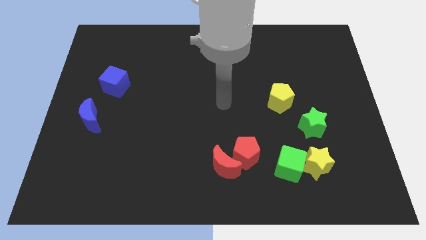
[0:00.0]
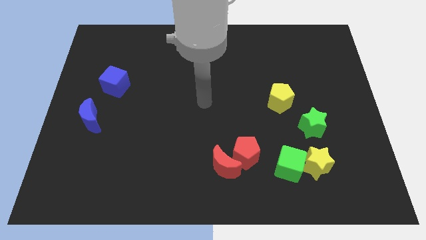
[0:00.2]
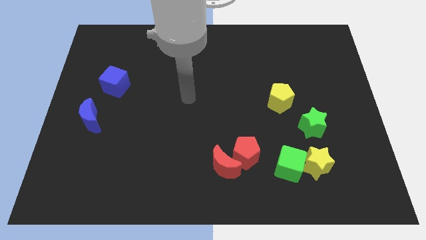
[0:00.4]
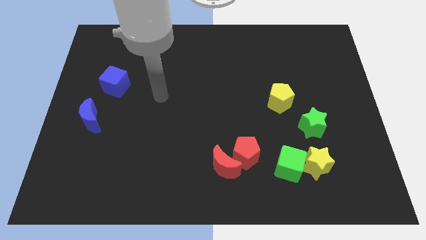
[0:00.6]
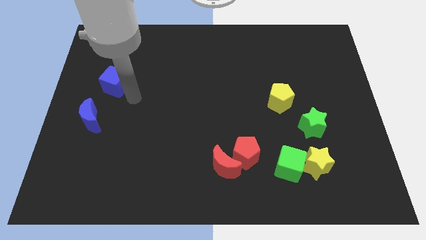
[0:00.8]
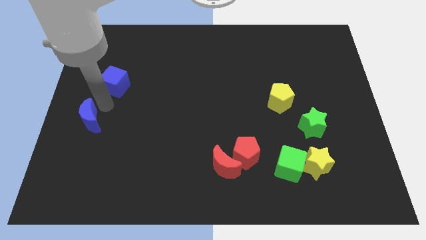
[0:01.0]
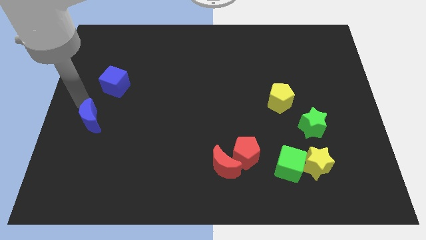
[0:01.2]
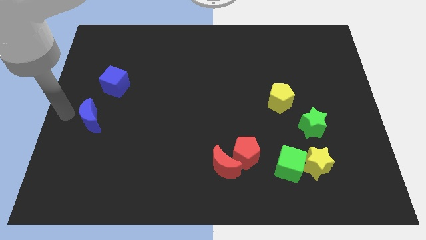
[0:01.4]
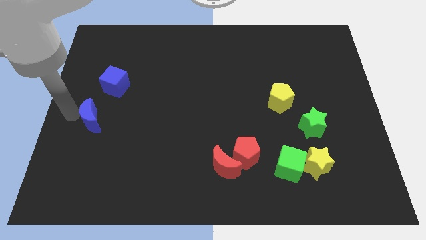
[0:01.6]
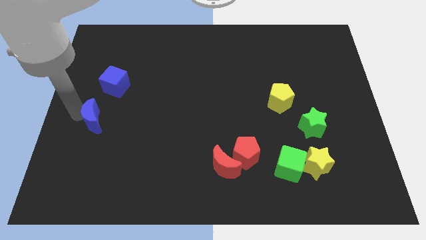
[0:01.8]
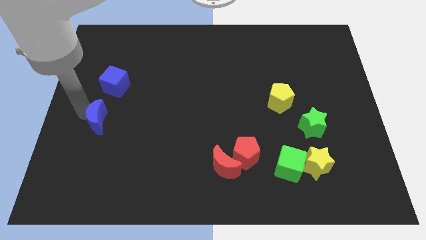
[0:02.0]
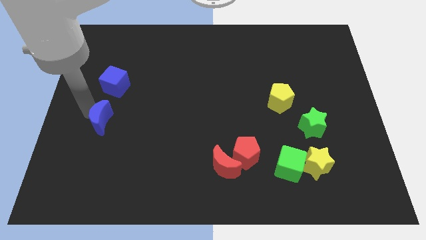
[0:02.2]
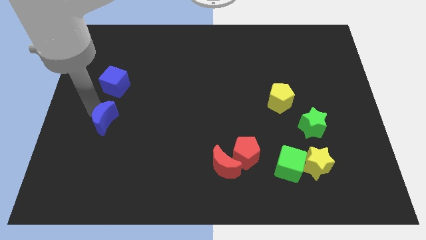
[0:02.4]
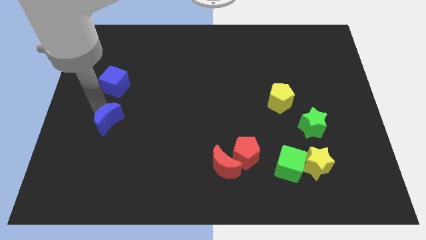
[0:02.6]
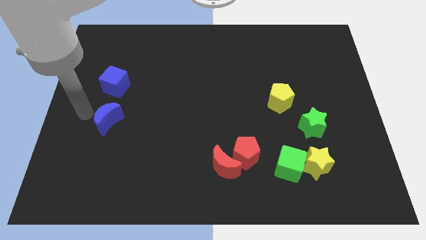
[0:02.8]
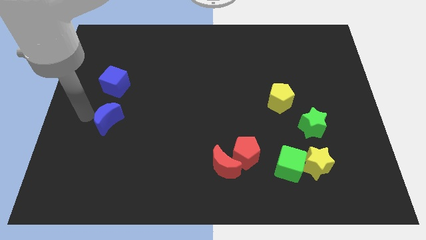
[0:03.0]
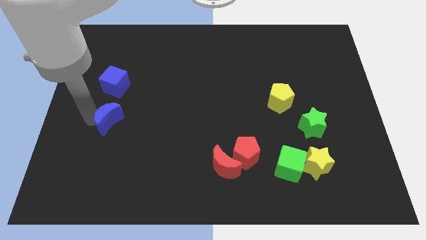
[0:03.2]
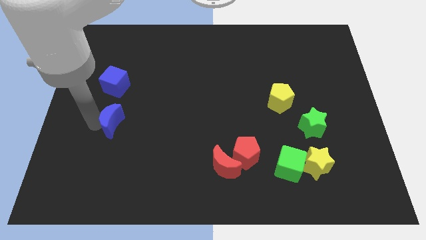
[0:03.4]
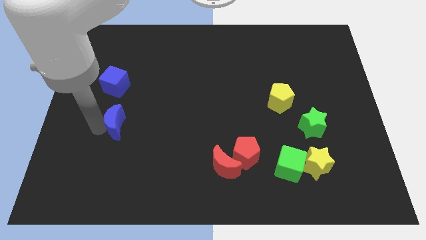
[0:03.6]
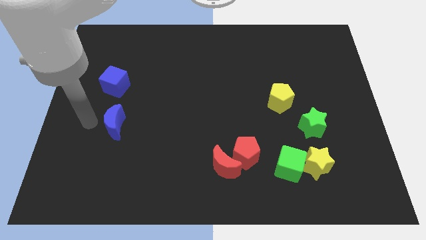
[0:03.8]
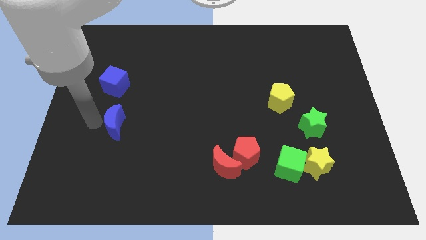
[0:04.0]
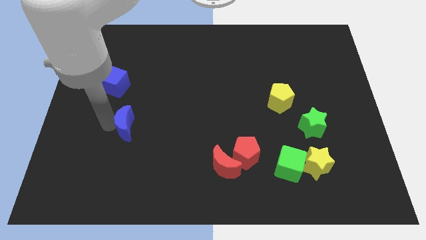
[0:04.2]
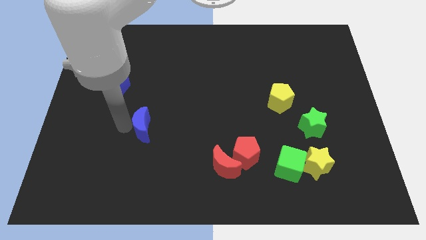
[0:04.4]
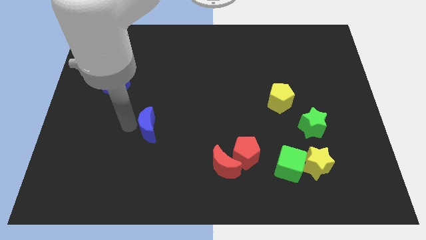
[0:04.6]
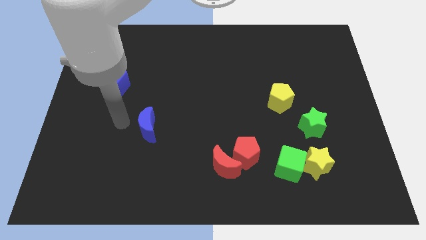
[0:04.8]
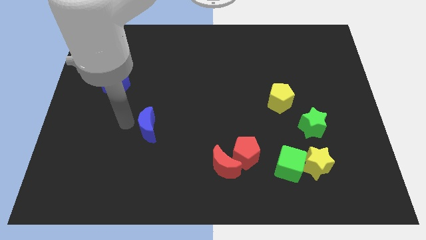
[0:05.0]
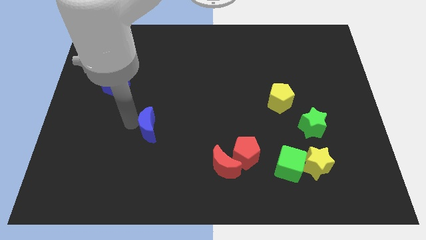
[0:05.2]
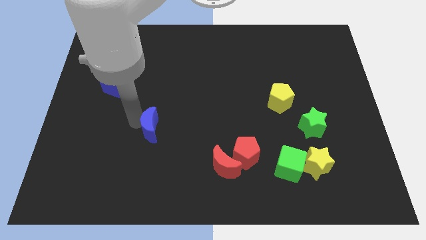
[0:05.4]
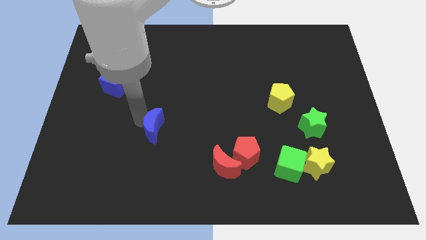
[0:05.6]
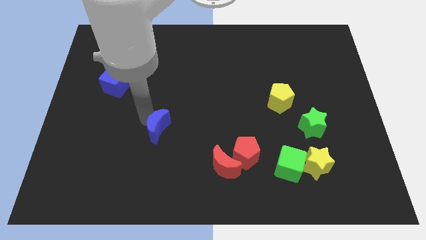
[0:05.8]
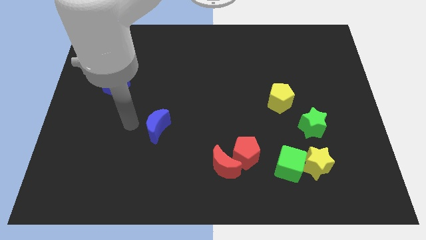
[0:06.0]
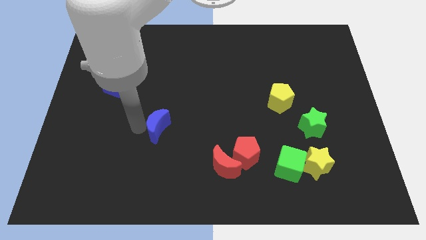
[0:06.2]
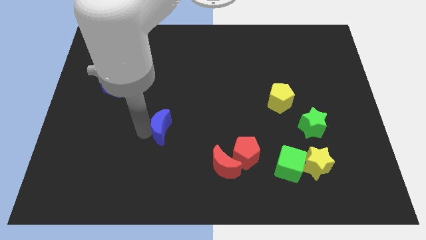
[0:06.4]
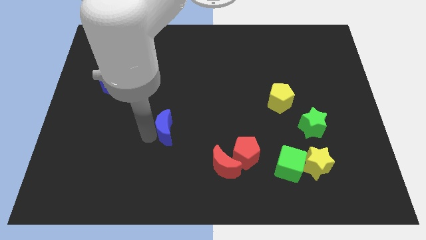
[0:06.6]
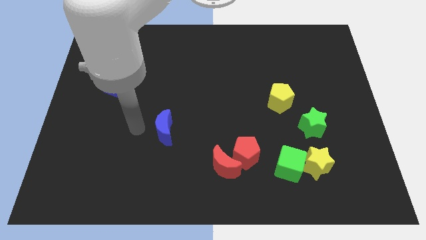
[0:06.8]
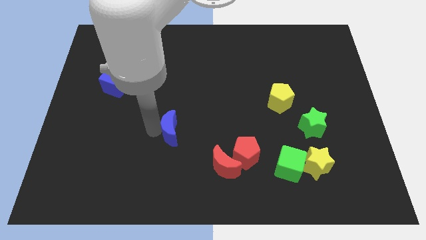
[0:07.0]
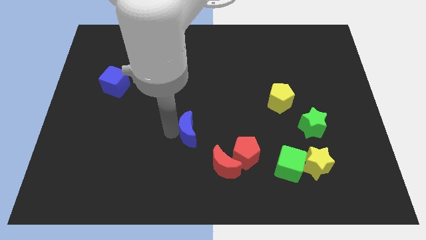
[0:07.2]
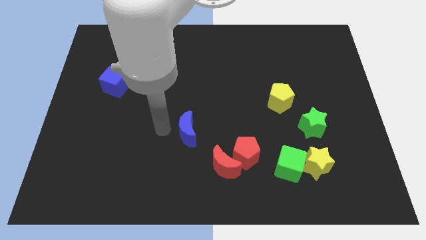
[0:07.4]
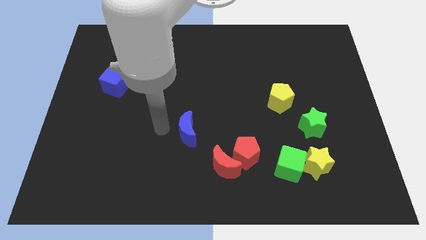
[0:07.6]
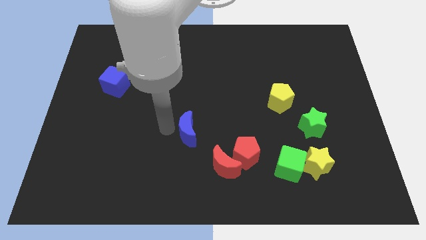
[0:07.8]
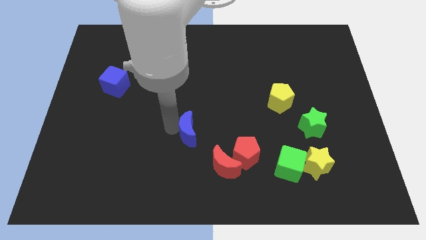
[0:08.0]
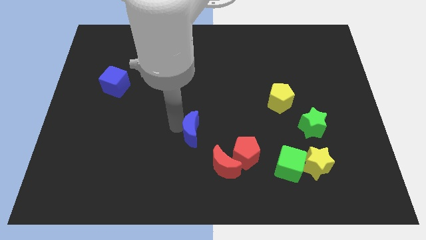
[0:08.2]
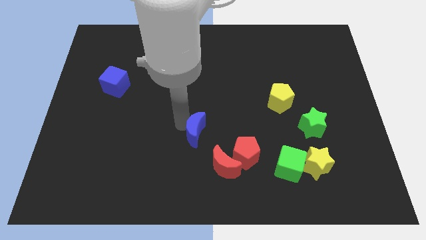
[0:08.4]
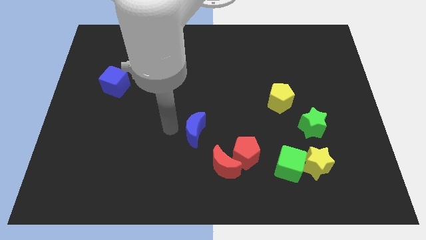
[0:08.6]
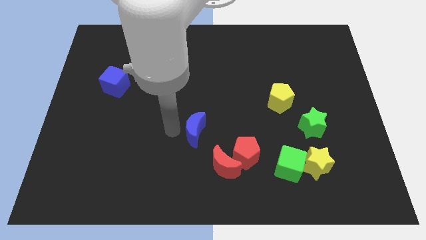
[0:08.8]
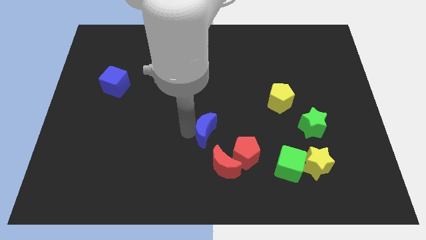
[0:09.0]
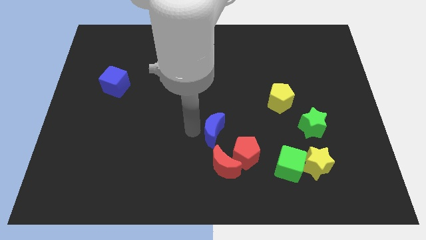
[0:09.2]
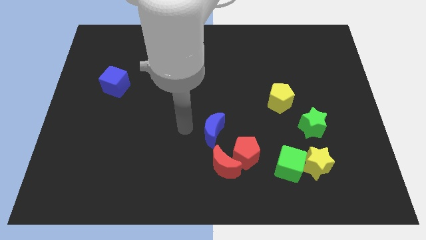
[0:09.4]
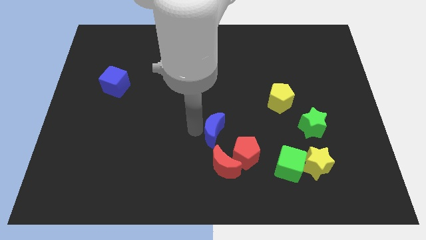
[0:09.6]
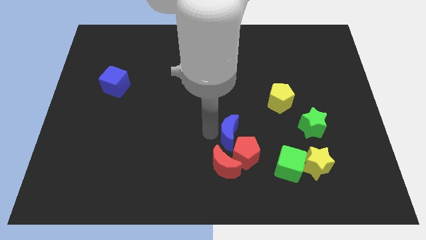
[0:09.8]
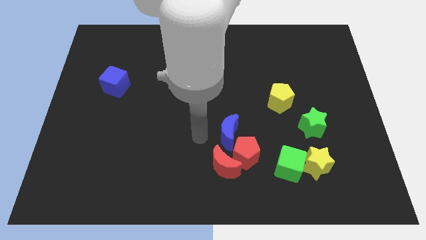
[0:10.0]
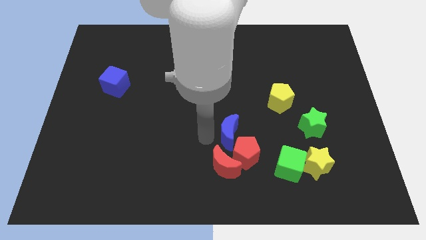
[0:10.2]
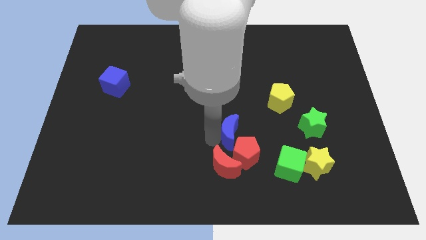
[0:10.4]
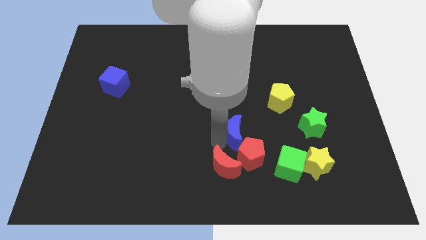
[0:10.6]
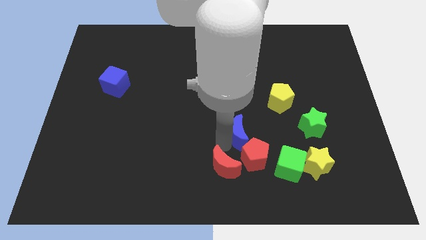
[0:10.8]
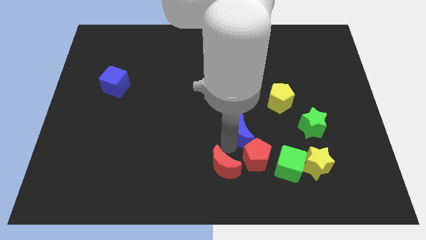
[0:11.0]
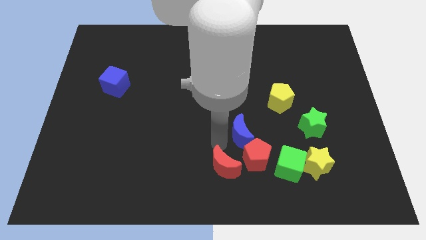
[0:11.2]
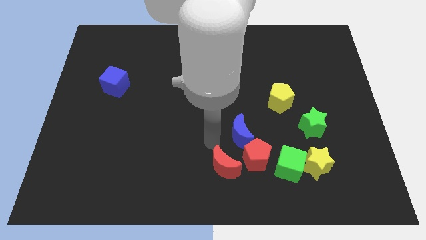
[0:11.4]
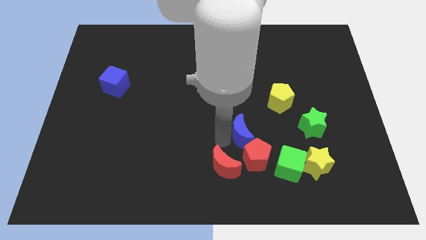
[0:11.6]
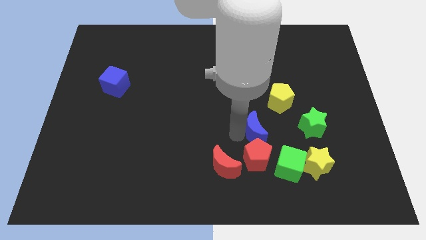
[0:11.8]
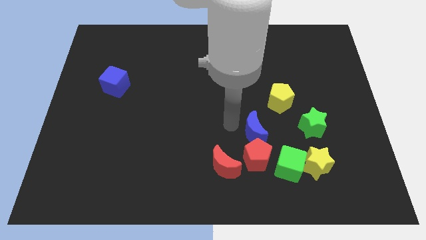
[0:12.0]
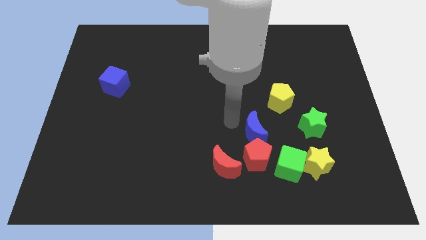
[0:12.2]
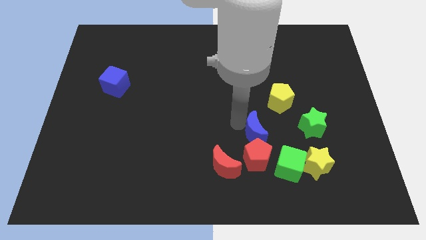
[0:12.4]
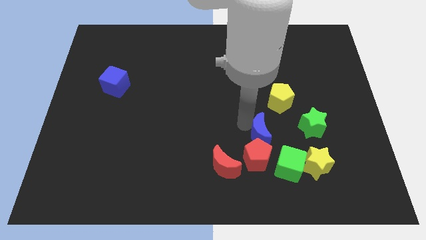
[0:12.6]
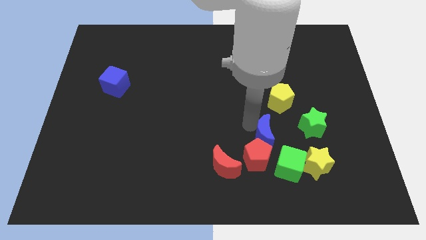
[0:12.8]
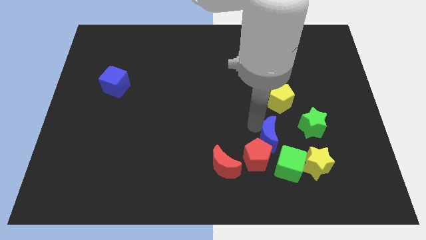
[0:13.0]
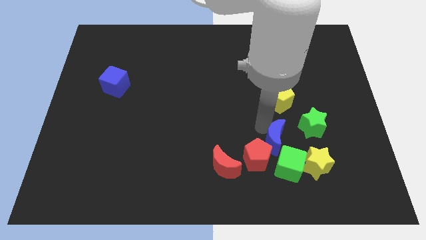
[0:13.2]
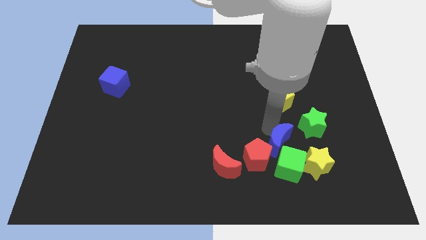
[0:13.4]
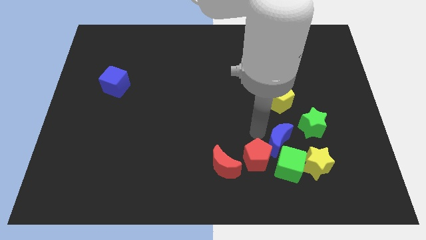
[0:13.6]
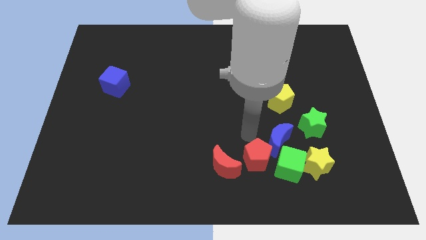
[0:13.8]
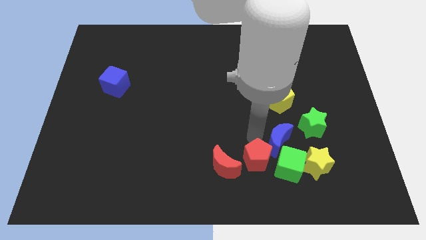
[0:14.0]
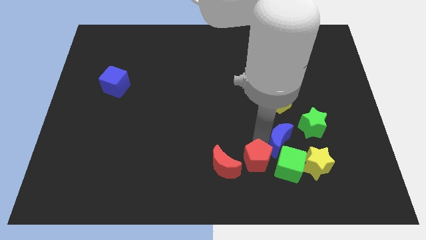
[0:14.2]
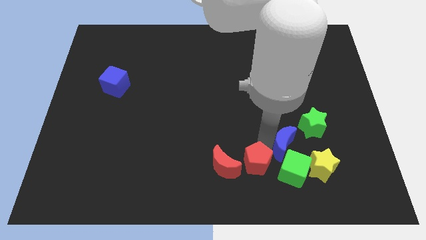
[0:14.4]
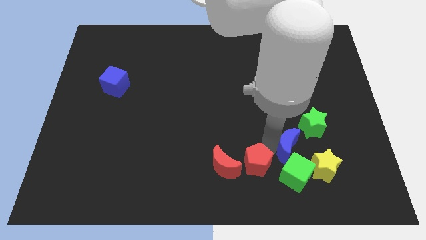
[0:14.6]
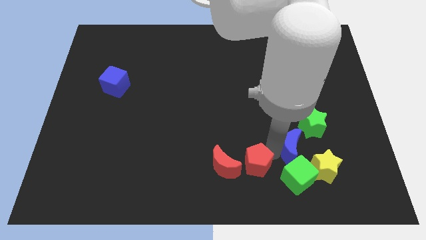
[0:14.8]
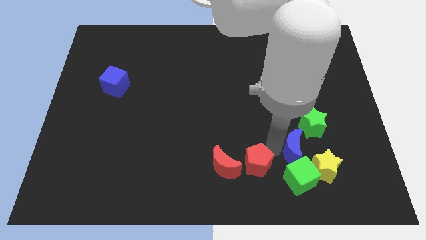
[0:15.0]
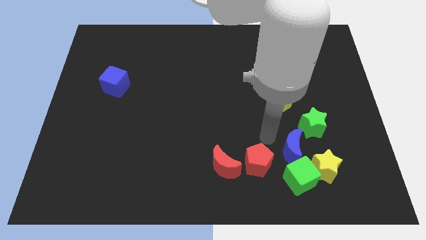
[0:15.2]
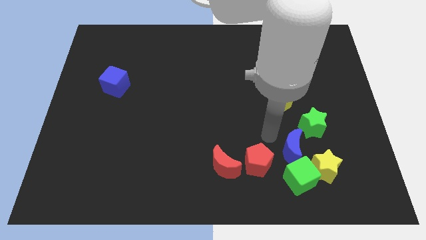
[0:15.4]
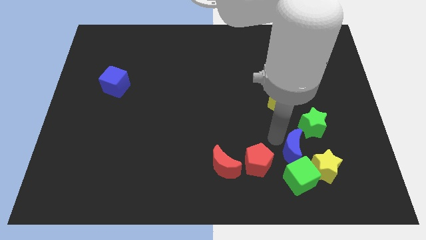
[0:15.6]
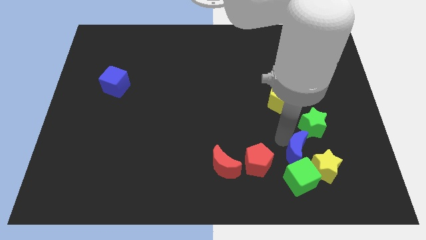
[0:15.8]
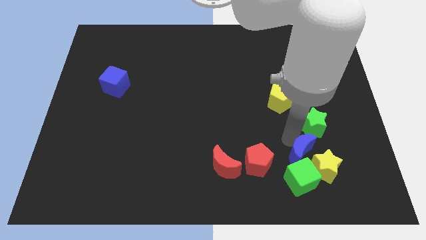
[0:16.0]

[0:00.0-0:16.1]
slide the blue moon to the yellow star
